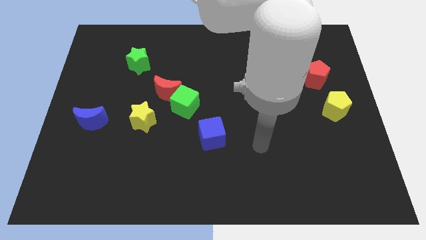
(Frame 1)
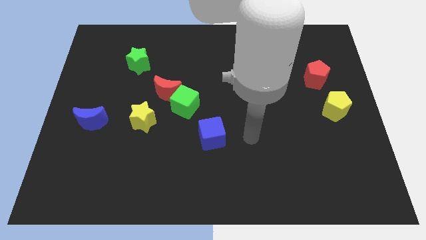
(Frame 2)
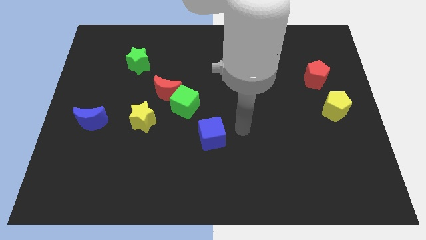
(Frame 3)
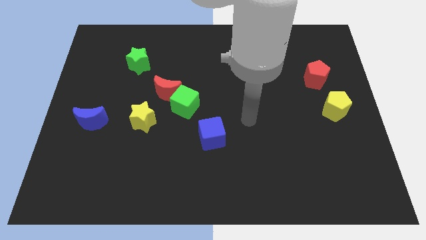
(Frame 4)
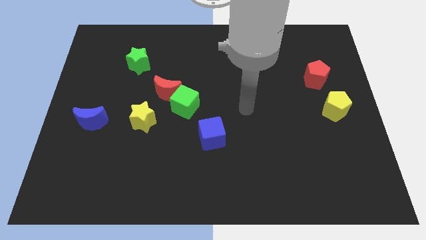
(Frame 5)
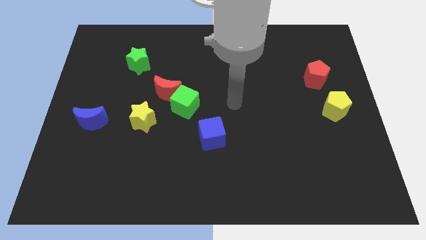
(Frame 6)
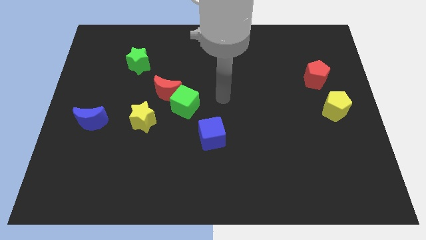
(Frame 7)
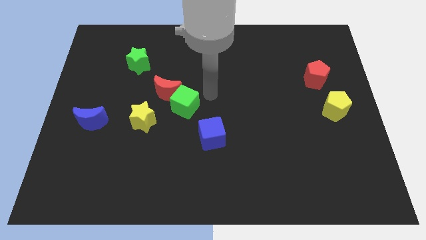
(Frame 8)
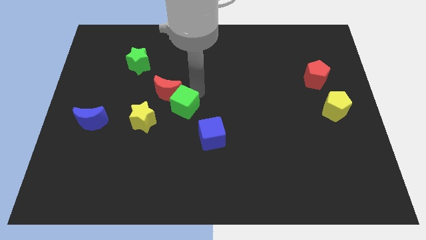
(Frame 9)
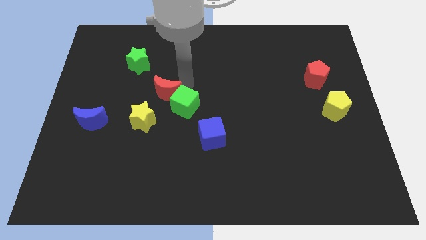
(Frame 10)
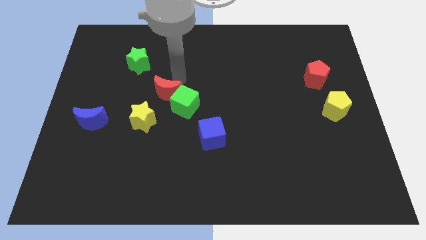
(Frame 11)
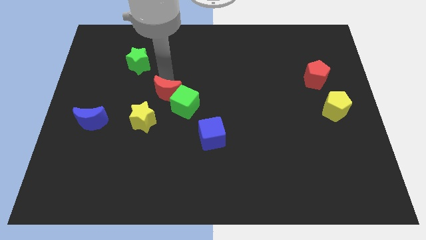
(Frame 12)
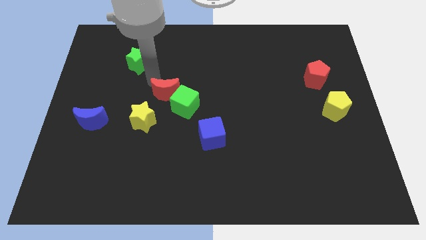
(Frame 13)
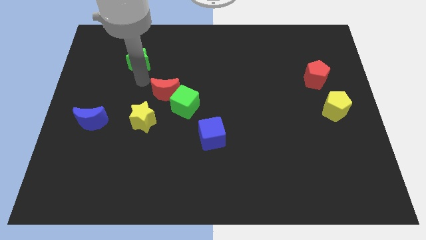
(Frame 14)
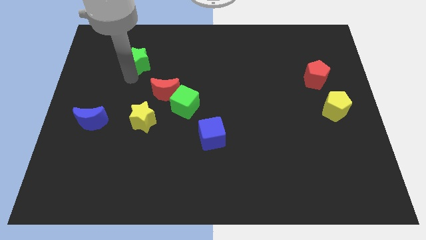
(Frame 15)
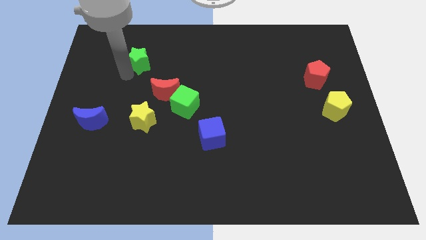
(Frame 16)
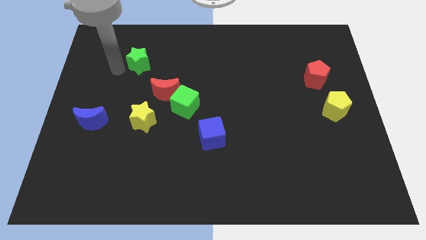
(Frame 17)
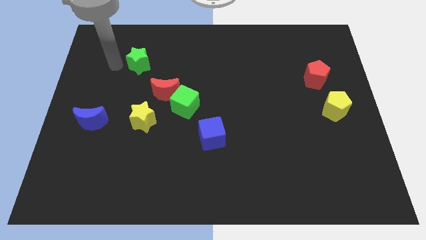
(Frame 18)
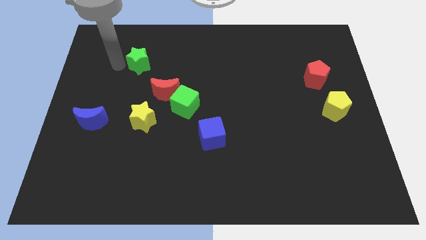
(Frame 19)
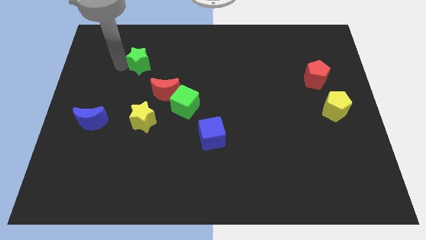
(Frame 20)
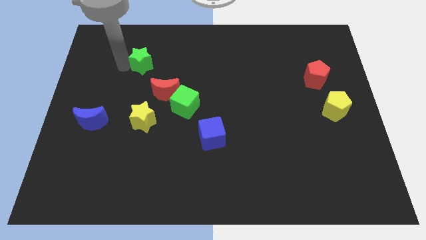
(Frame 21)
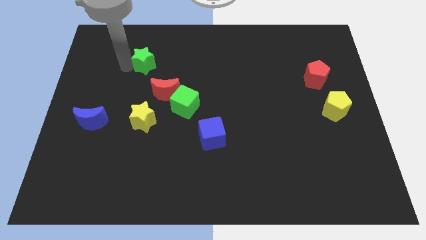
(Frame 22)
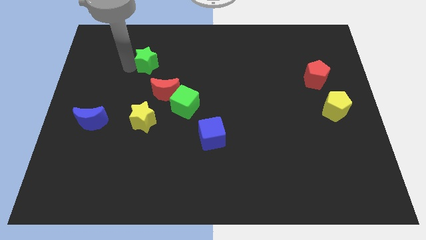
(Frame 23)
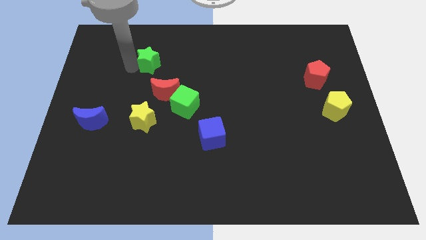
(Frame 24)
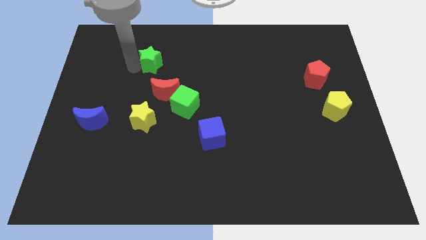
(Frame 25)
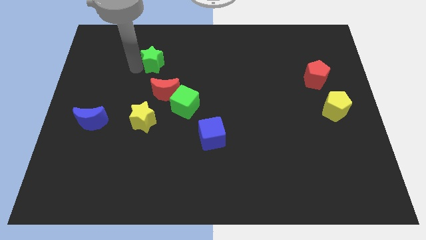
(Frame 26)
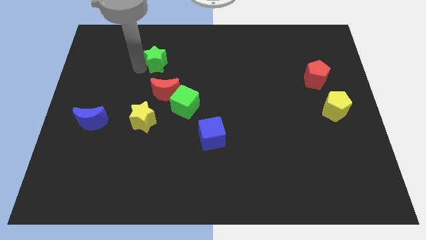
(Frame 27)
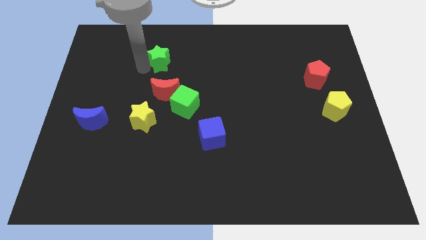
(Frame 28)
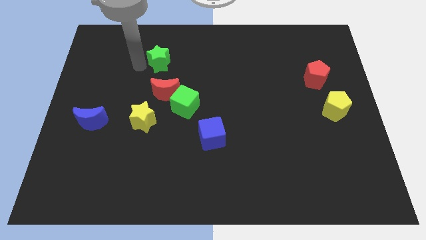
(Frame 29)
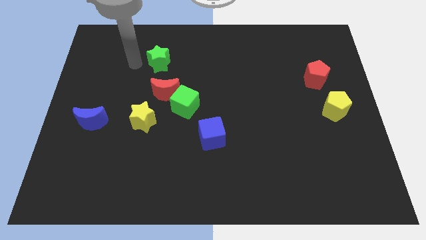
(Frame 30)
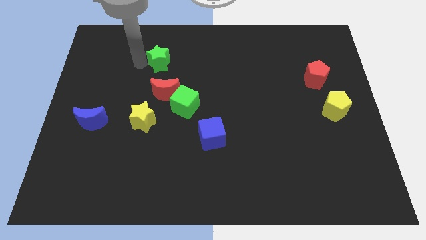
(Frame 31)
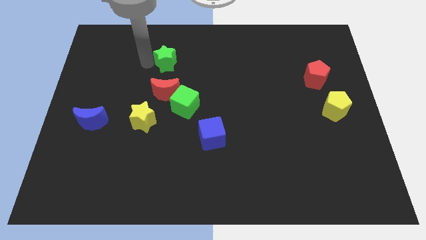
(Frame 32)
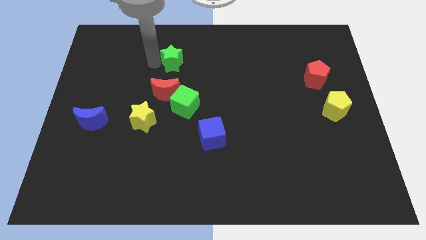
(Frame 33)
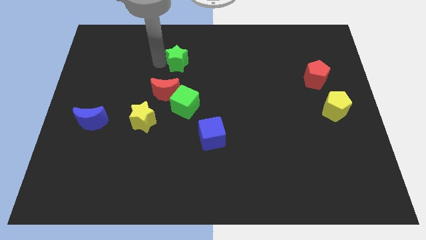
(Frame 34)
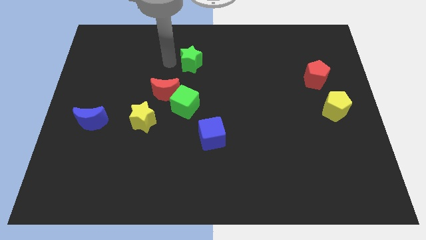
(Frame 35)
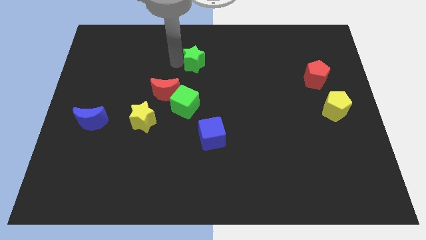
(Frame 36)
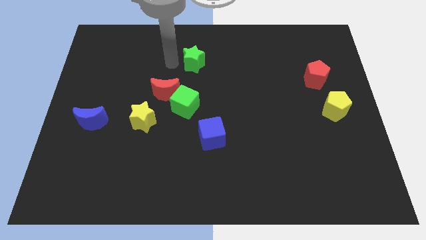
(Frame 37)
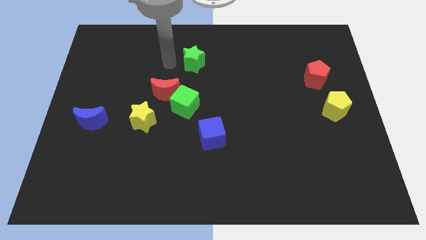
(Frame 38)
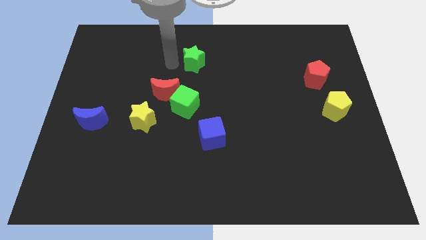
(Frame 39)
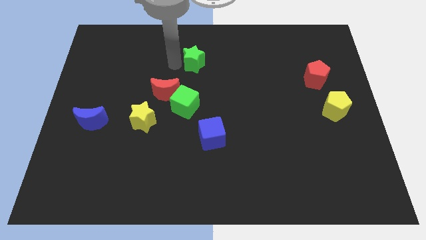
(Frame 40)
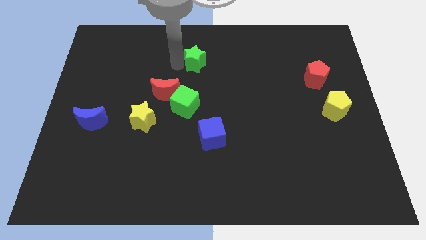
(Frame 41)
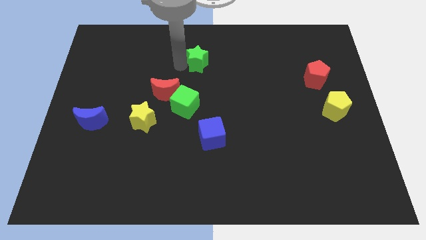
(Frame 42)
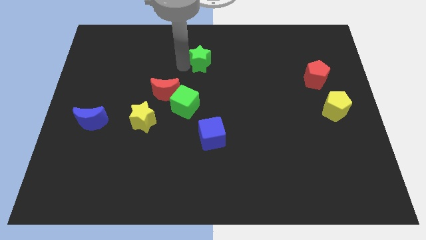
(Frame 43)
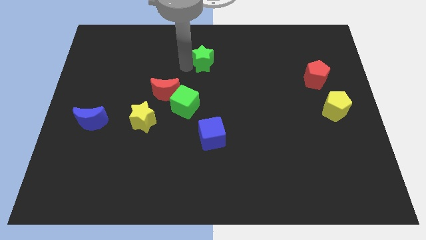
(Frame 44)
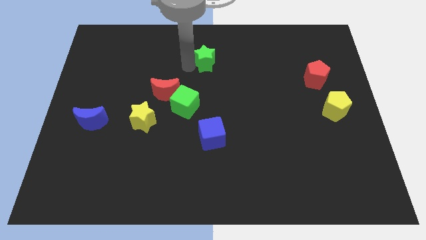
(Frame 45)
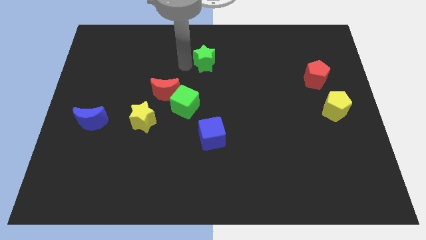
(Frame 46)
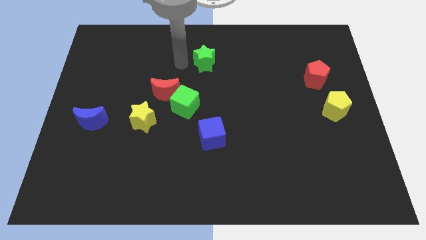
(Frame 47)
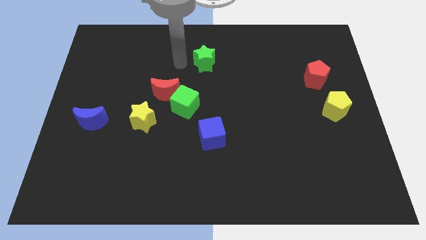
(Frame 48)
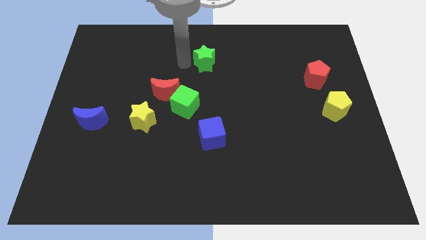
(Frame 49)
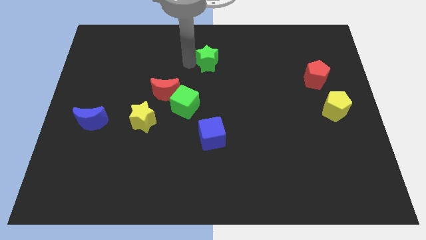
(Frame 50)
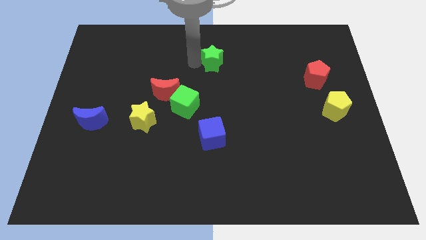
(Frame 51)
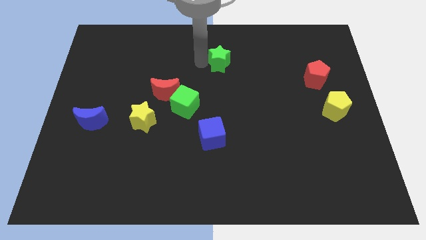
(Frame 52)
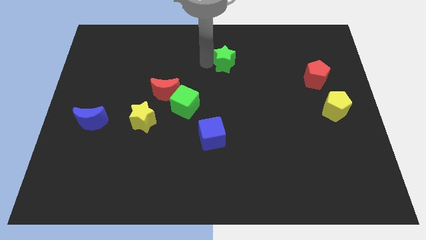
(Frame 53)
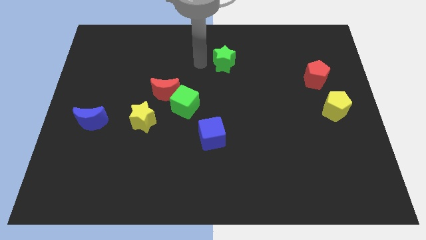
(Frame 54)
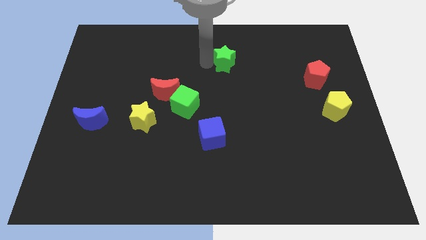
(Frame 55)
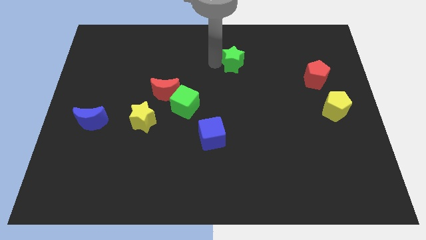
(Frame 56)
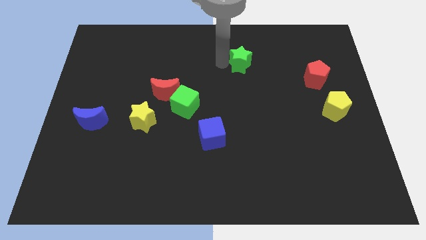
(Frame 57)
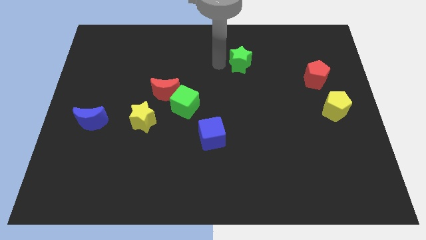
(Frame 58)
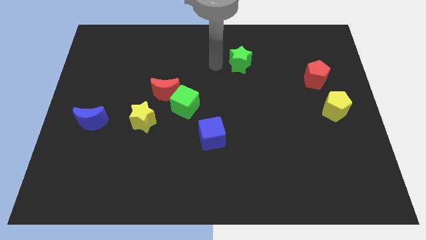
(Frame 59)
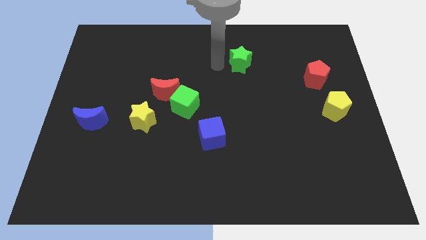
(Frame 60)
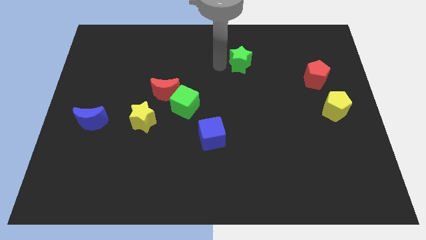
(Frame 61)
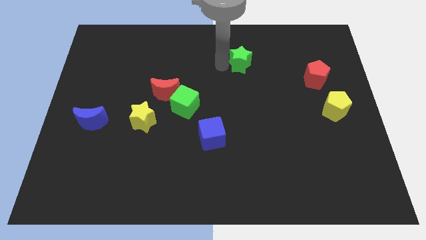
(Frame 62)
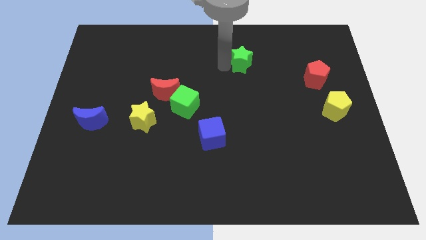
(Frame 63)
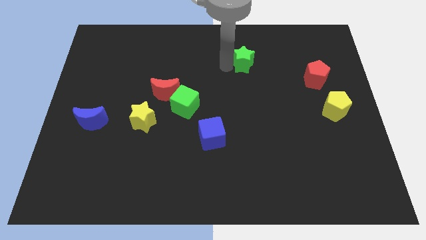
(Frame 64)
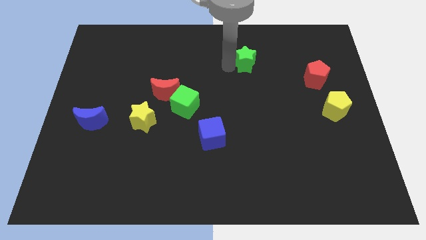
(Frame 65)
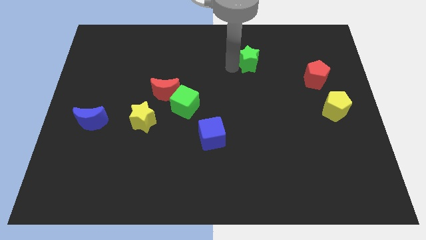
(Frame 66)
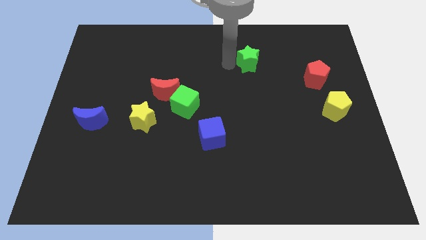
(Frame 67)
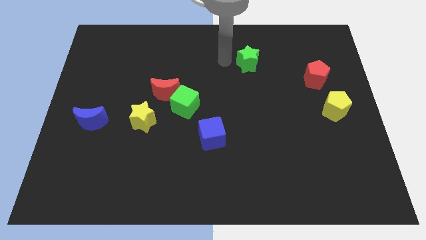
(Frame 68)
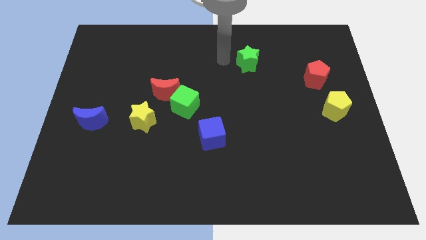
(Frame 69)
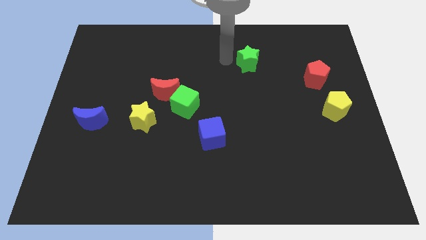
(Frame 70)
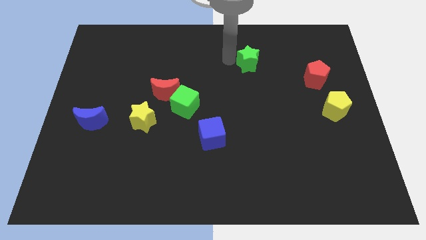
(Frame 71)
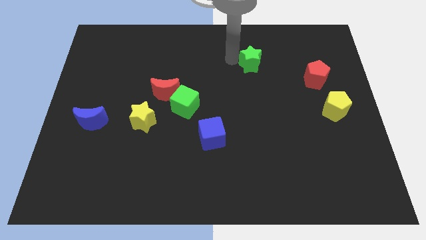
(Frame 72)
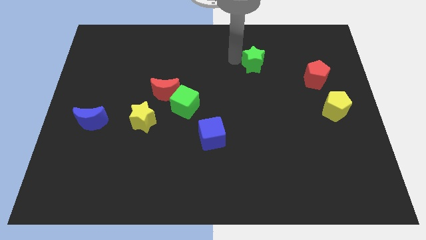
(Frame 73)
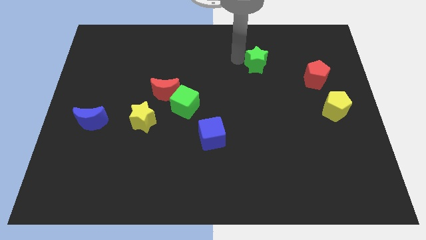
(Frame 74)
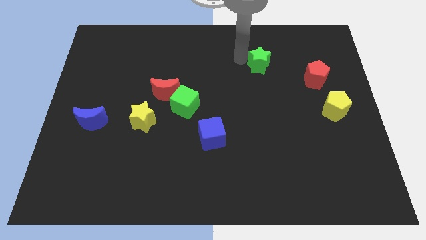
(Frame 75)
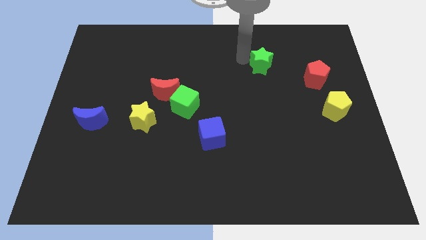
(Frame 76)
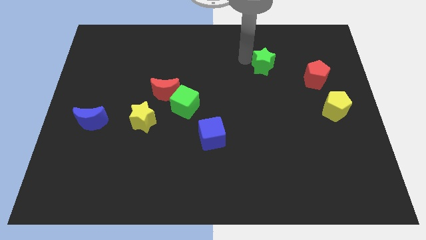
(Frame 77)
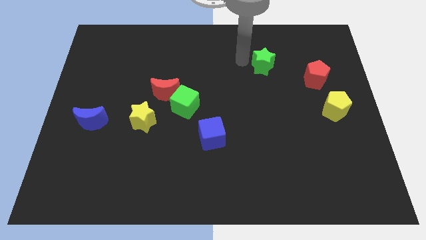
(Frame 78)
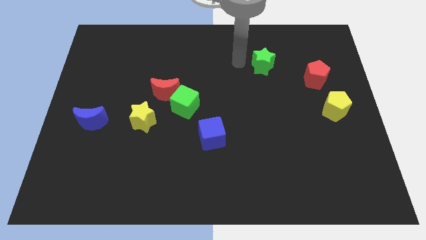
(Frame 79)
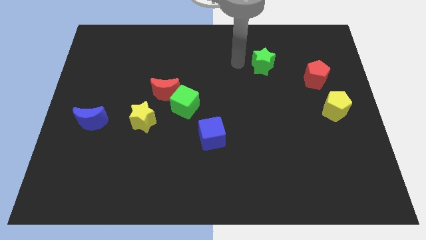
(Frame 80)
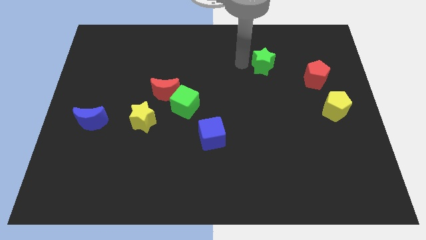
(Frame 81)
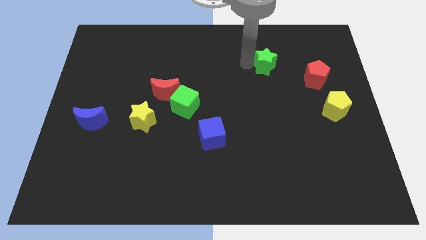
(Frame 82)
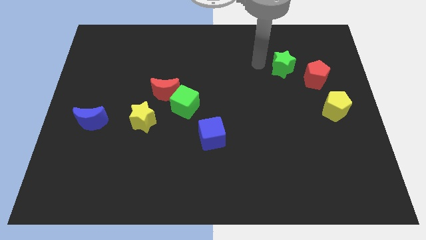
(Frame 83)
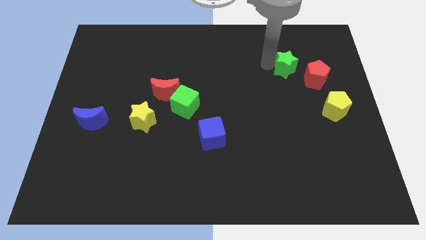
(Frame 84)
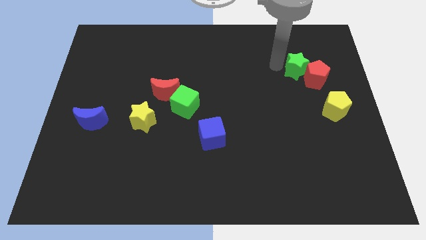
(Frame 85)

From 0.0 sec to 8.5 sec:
put the green star to the red pentagon
